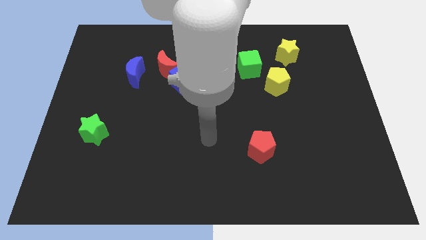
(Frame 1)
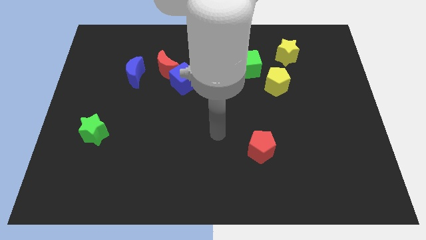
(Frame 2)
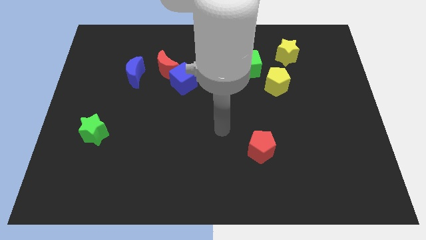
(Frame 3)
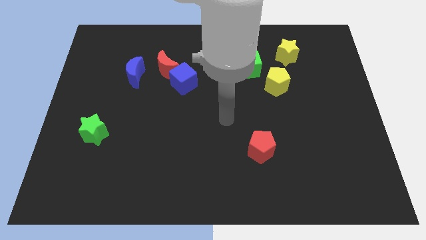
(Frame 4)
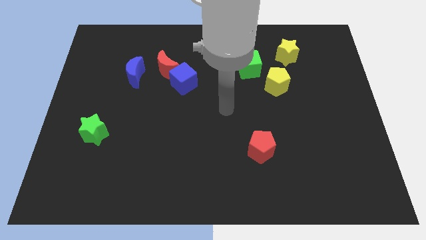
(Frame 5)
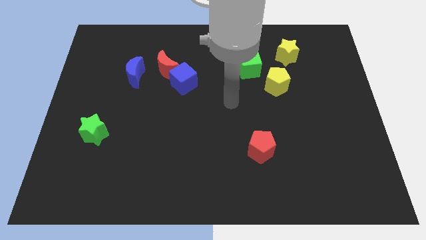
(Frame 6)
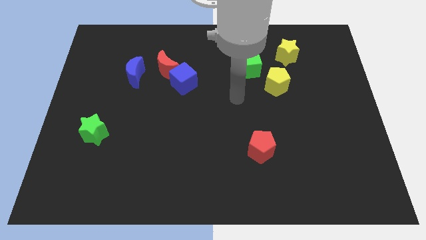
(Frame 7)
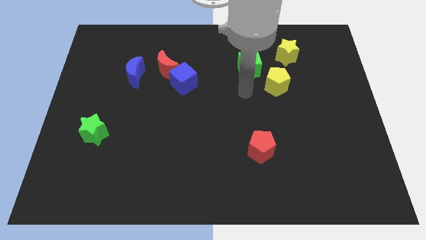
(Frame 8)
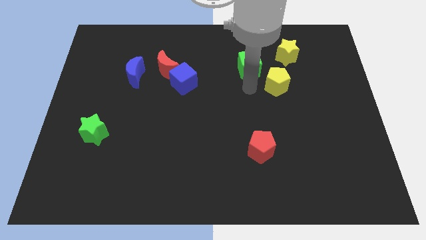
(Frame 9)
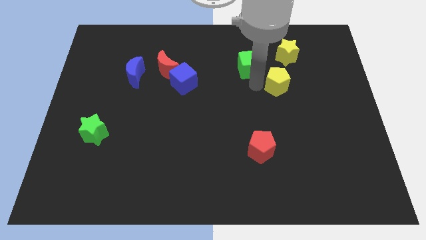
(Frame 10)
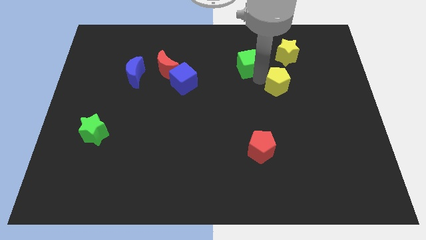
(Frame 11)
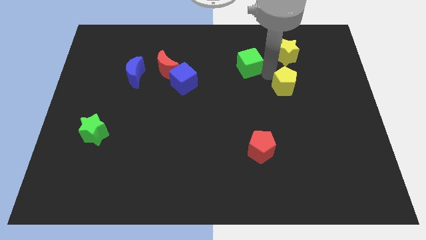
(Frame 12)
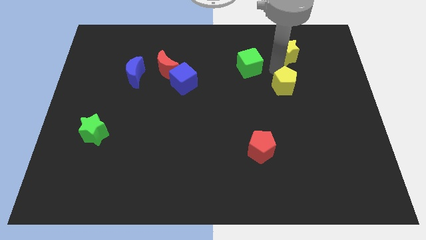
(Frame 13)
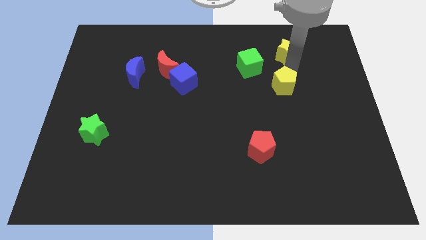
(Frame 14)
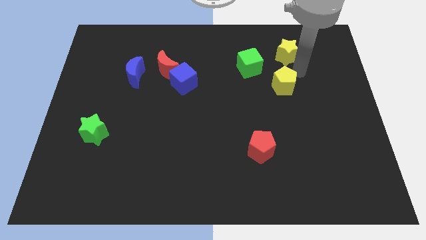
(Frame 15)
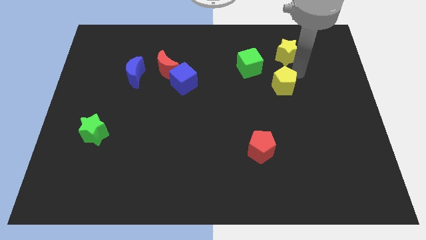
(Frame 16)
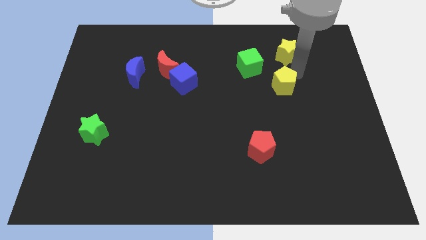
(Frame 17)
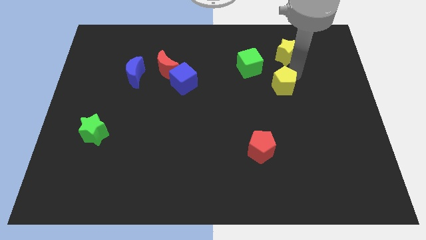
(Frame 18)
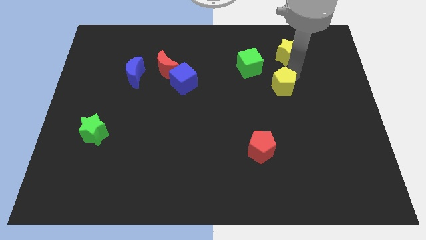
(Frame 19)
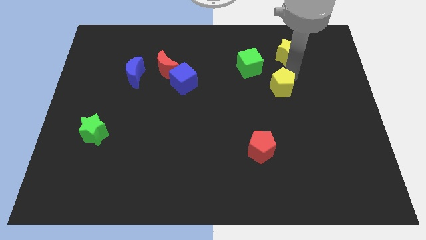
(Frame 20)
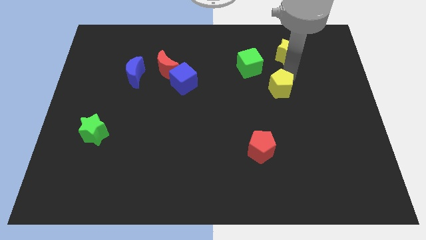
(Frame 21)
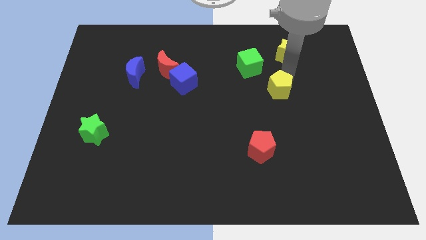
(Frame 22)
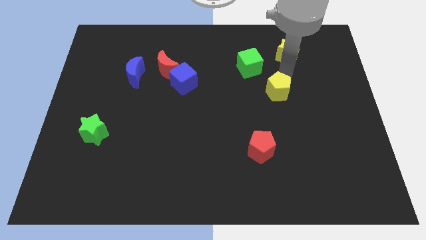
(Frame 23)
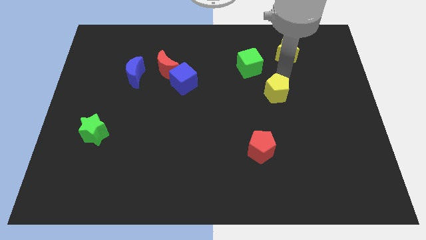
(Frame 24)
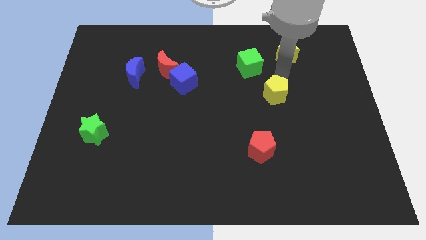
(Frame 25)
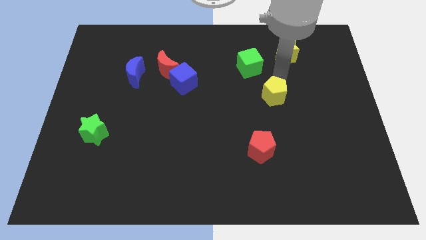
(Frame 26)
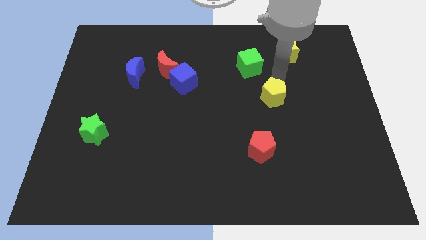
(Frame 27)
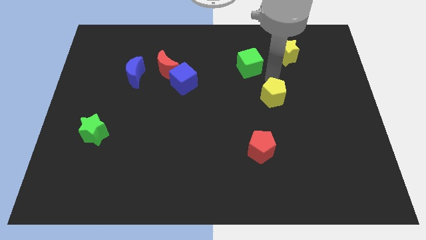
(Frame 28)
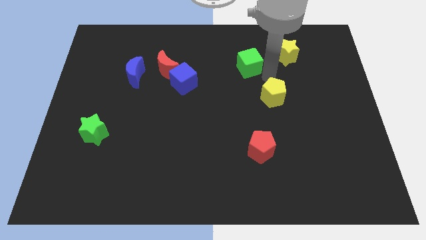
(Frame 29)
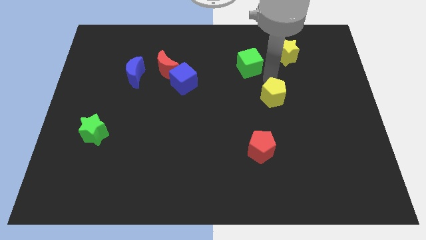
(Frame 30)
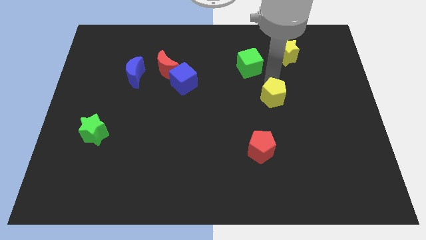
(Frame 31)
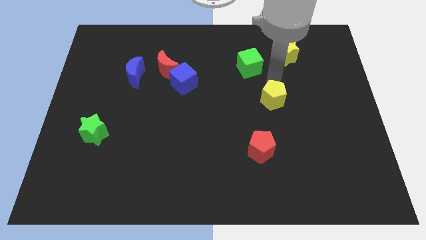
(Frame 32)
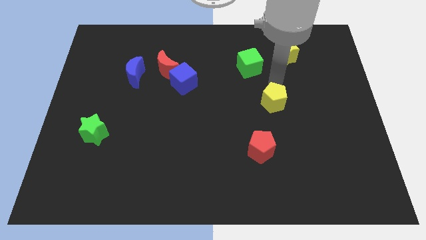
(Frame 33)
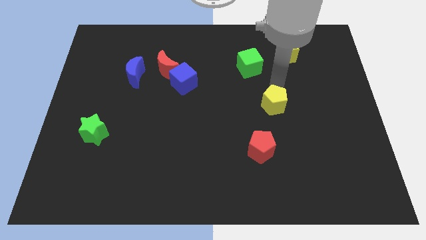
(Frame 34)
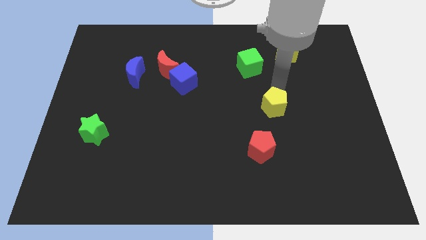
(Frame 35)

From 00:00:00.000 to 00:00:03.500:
move the yellow pentagon down a bit

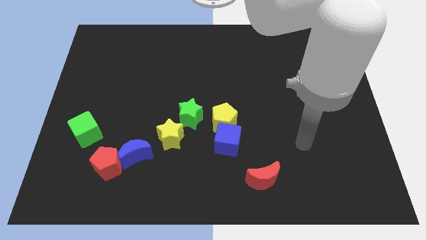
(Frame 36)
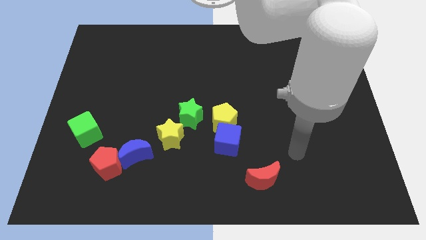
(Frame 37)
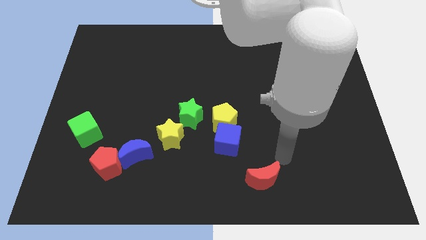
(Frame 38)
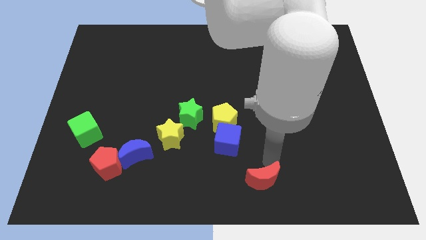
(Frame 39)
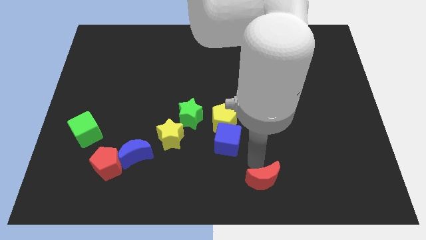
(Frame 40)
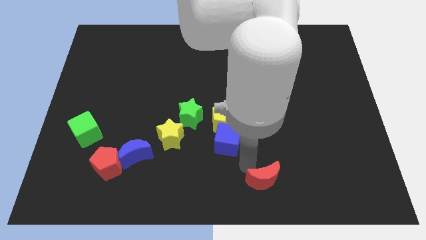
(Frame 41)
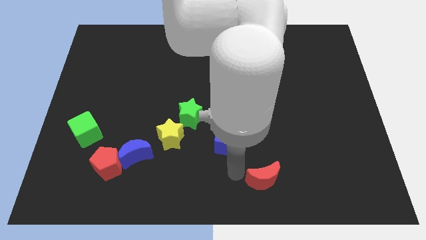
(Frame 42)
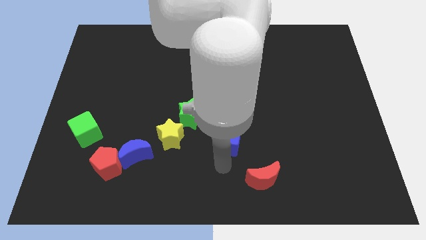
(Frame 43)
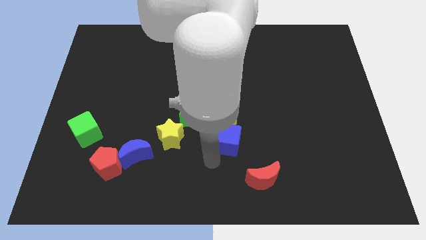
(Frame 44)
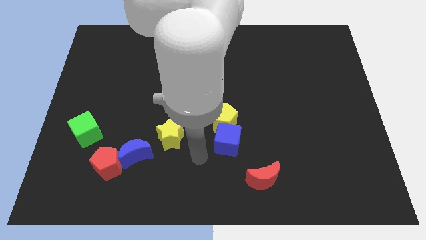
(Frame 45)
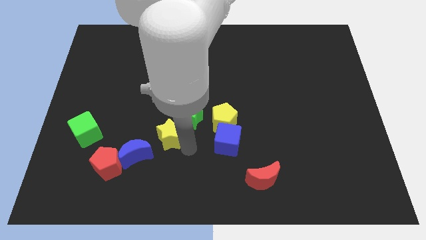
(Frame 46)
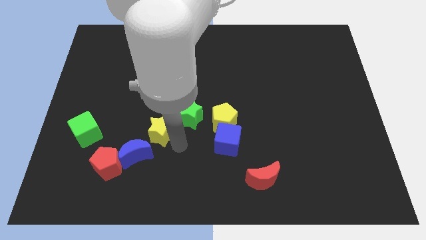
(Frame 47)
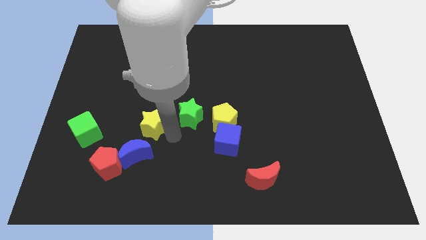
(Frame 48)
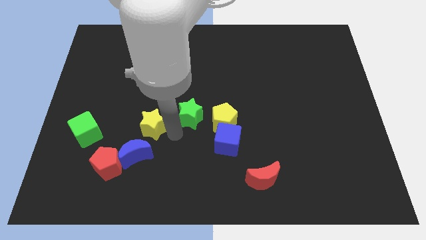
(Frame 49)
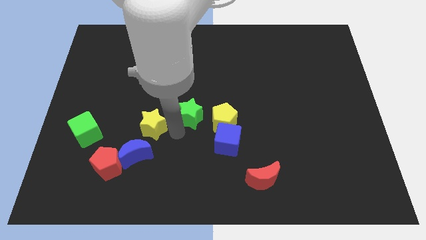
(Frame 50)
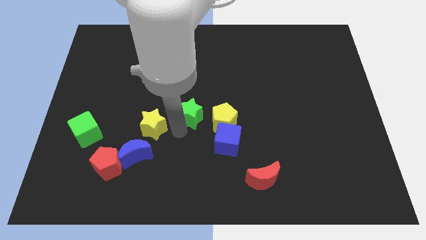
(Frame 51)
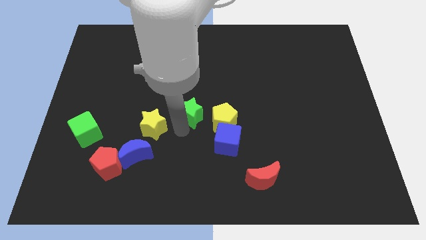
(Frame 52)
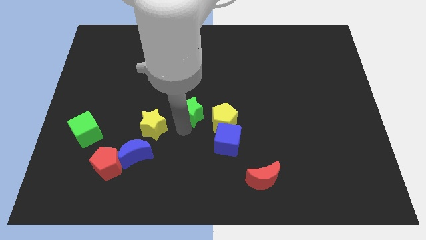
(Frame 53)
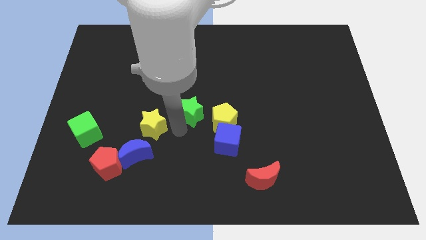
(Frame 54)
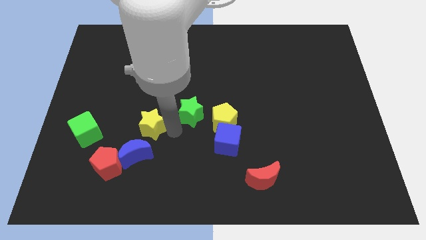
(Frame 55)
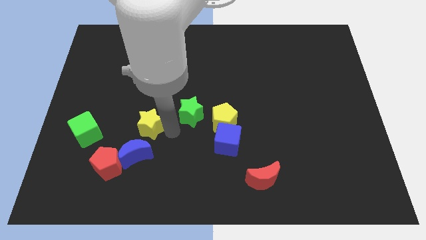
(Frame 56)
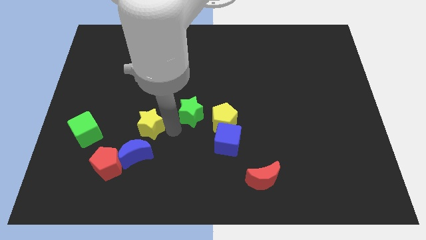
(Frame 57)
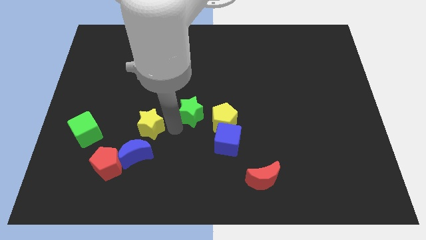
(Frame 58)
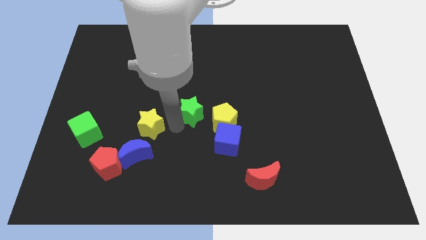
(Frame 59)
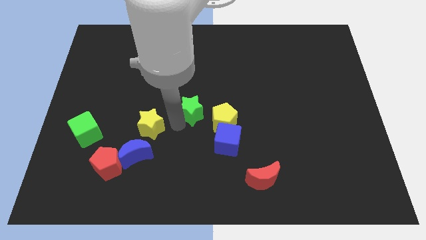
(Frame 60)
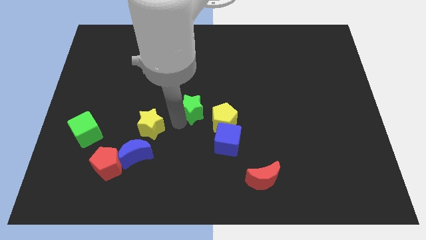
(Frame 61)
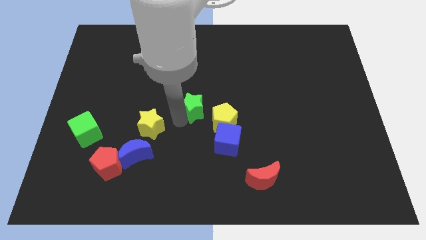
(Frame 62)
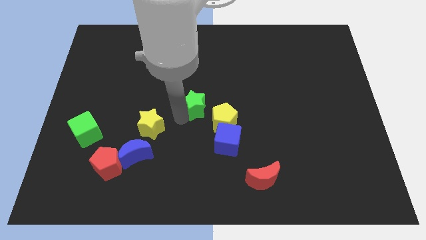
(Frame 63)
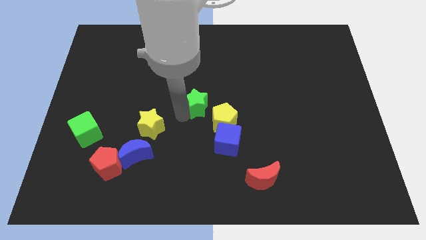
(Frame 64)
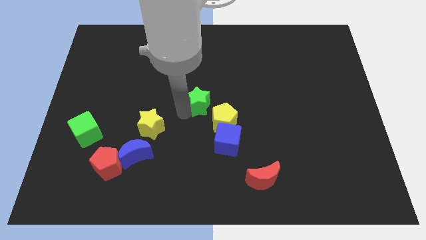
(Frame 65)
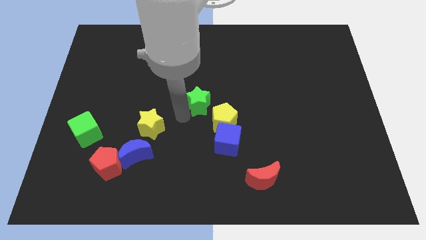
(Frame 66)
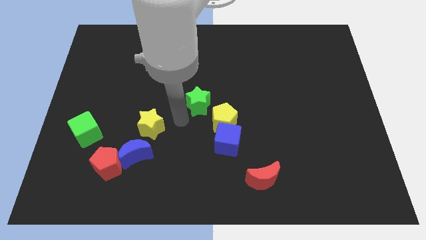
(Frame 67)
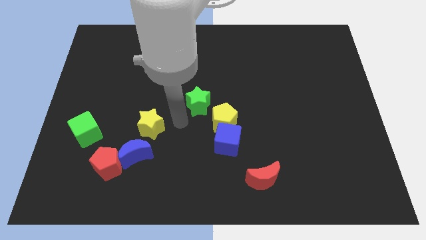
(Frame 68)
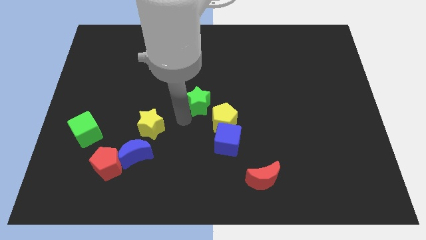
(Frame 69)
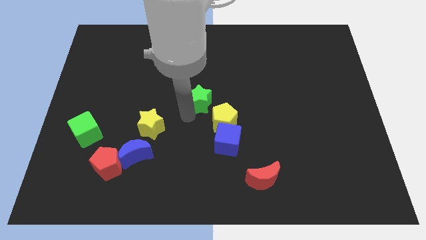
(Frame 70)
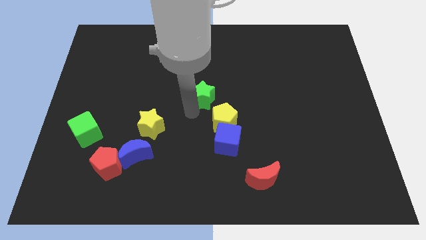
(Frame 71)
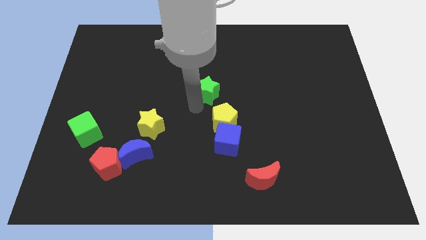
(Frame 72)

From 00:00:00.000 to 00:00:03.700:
slide the green star upwards and to the right diagonally a bit

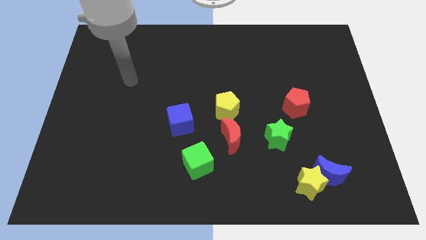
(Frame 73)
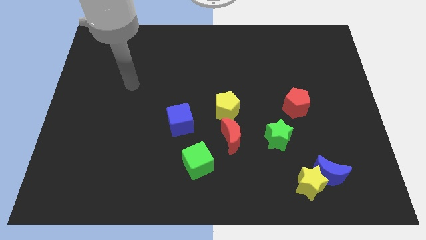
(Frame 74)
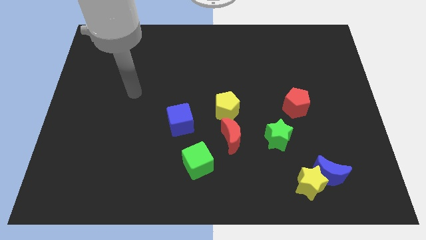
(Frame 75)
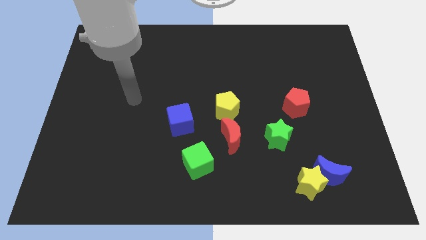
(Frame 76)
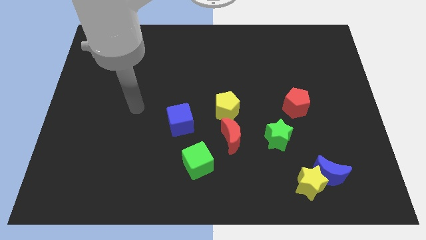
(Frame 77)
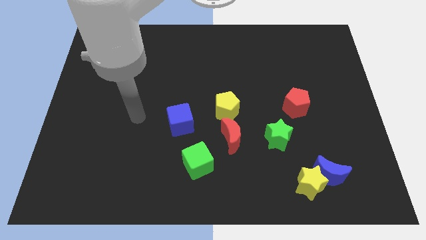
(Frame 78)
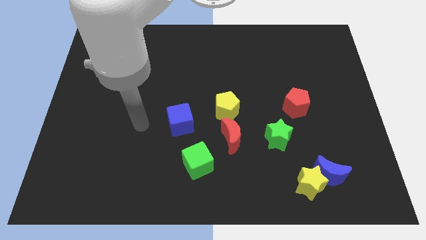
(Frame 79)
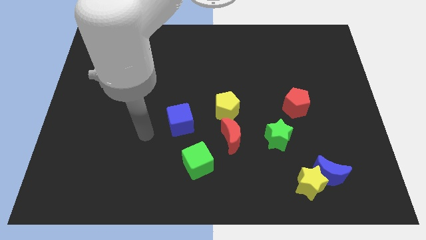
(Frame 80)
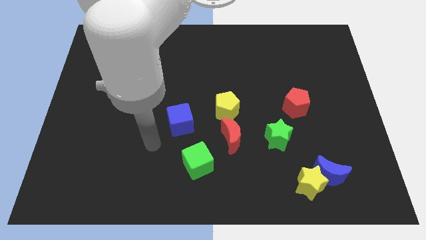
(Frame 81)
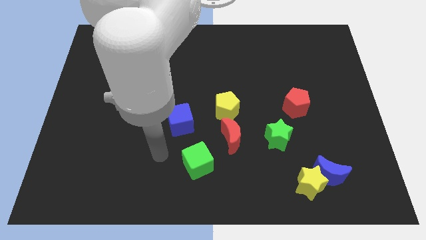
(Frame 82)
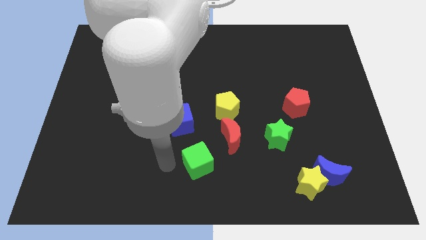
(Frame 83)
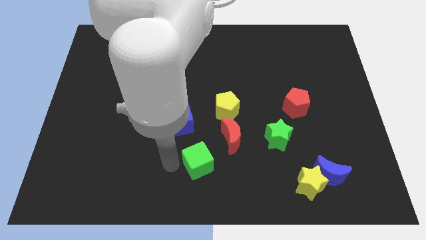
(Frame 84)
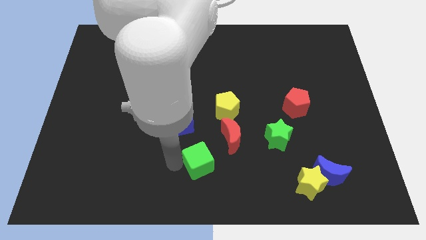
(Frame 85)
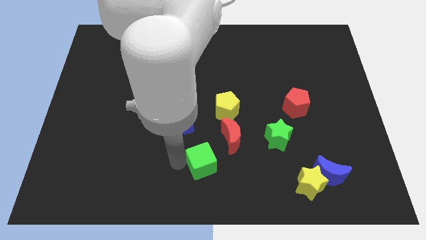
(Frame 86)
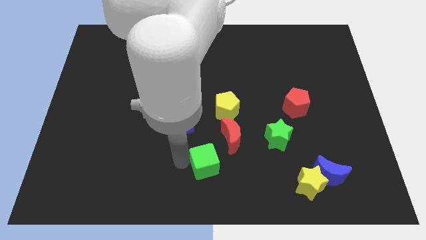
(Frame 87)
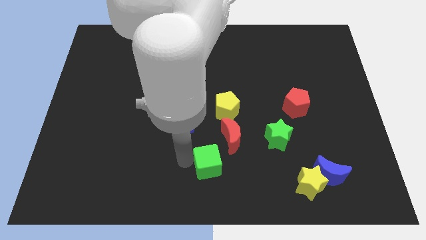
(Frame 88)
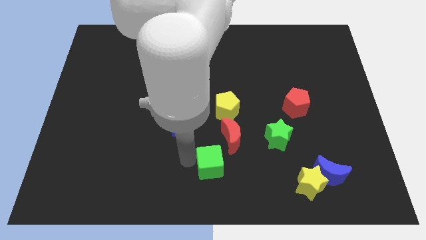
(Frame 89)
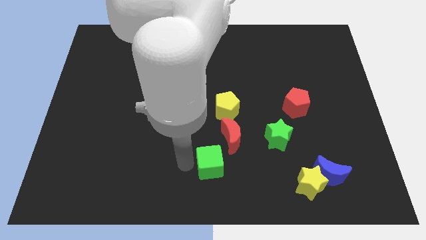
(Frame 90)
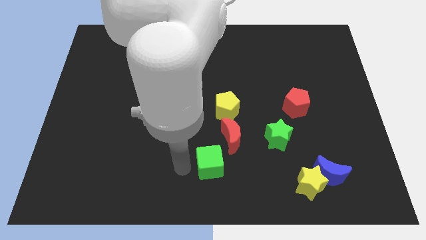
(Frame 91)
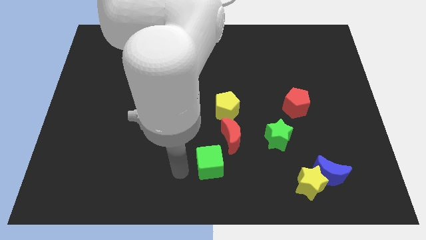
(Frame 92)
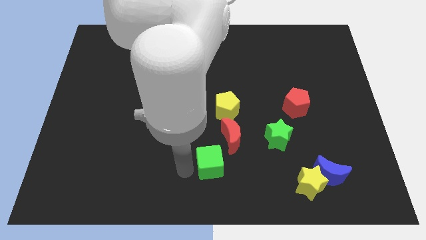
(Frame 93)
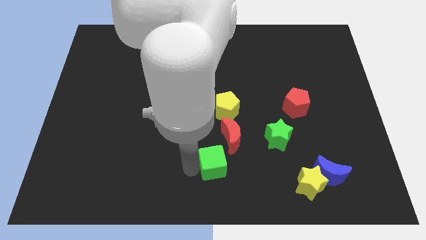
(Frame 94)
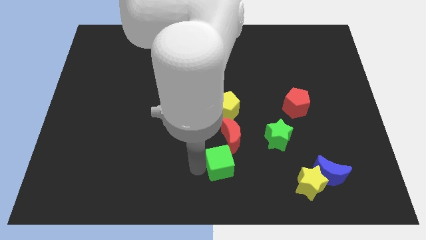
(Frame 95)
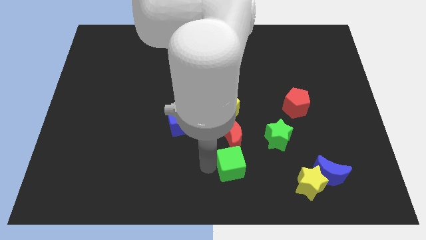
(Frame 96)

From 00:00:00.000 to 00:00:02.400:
slightly slide the green cube right
